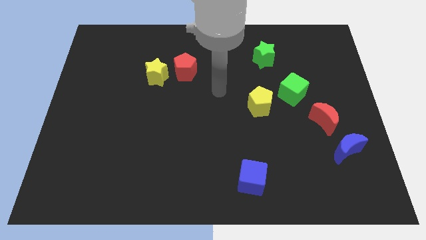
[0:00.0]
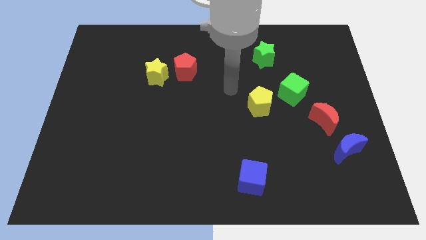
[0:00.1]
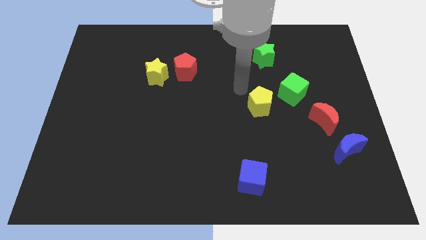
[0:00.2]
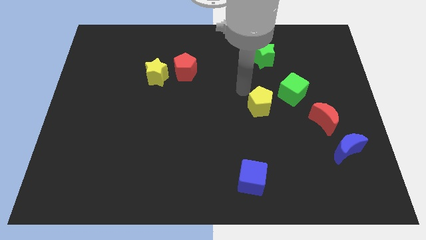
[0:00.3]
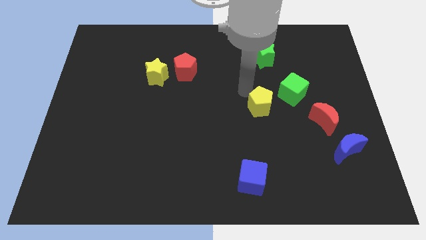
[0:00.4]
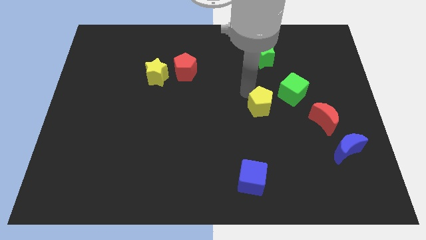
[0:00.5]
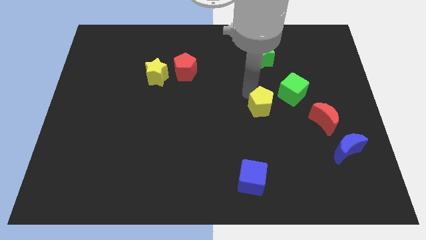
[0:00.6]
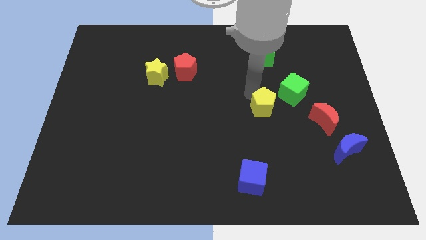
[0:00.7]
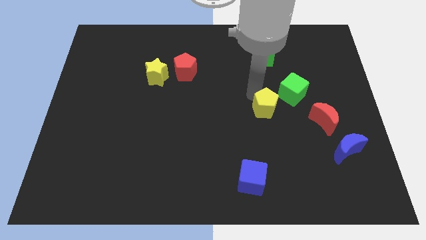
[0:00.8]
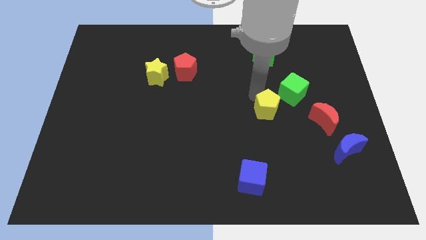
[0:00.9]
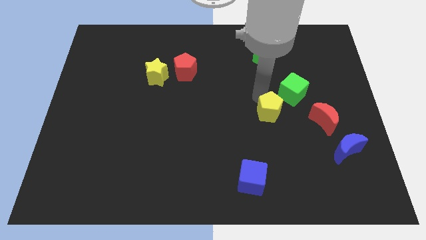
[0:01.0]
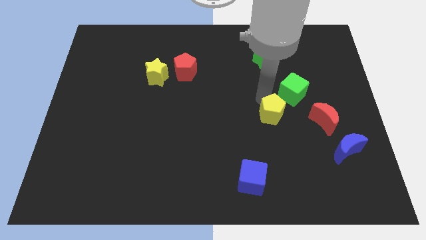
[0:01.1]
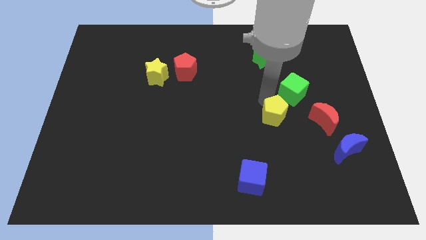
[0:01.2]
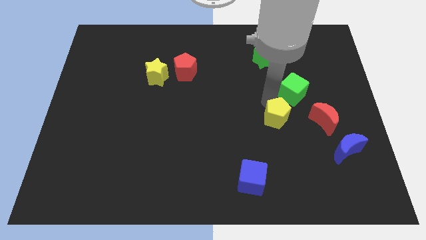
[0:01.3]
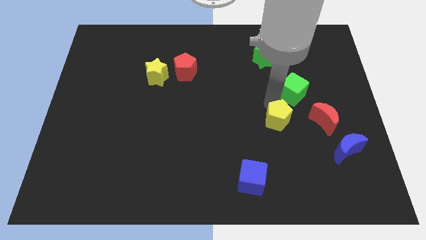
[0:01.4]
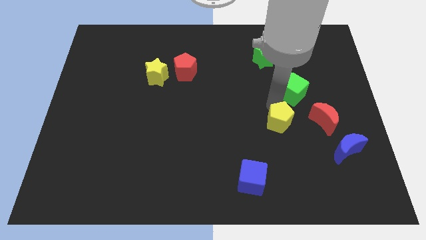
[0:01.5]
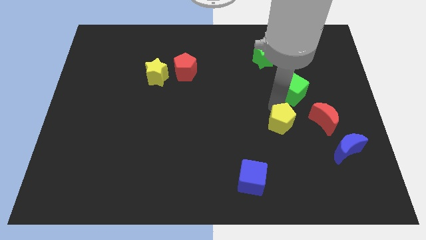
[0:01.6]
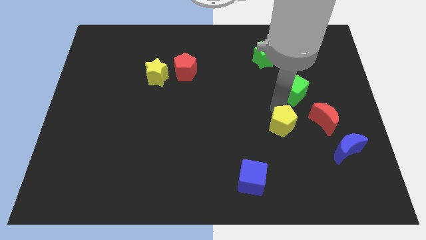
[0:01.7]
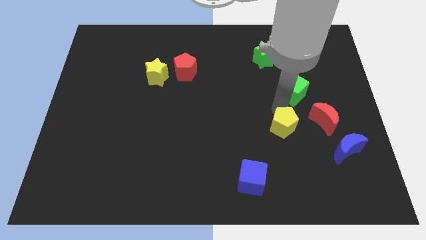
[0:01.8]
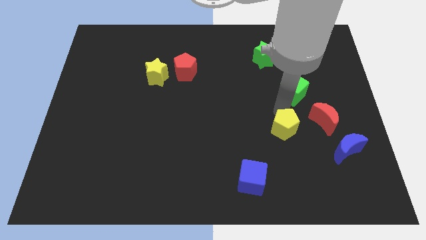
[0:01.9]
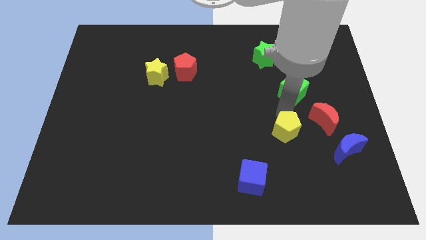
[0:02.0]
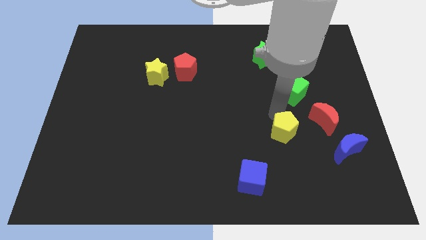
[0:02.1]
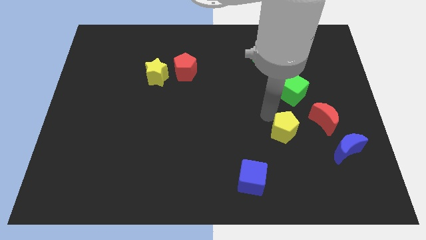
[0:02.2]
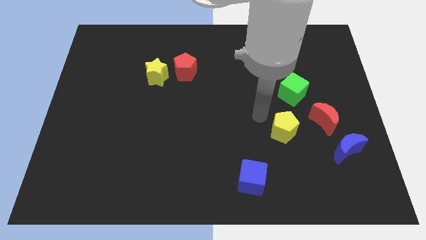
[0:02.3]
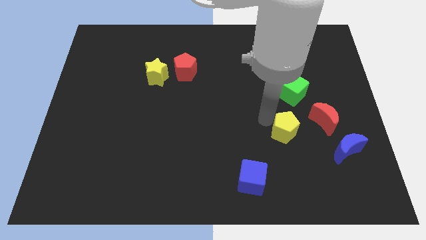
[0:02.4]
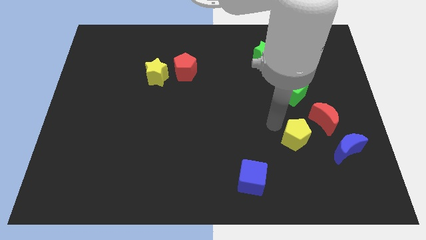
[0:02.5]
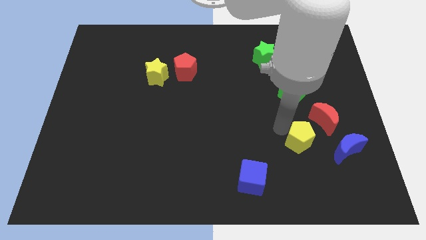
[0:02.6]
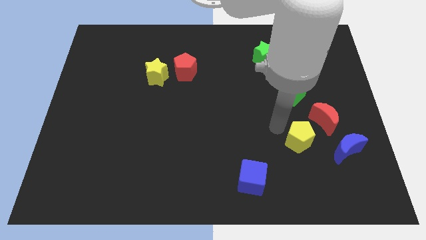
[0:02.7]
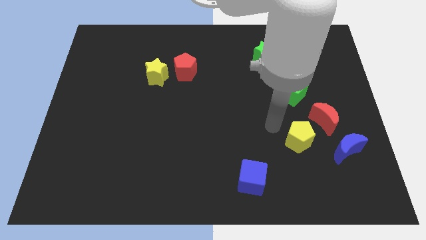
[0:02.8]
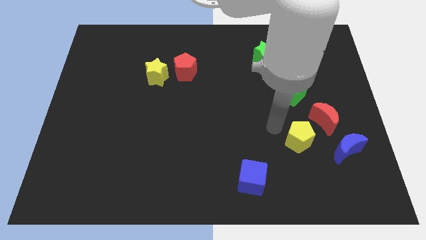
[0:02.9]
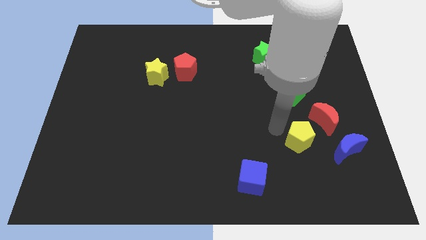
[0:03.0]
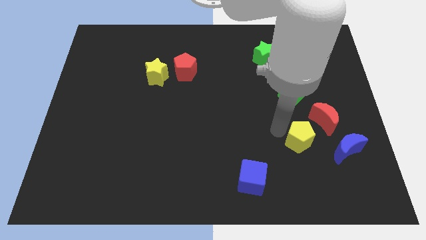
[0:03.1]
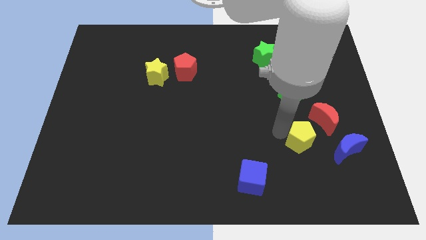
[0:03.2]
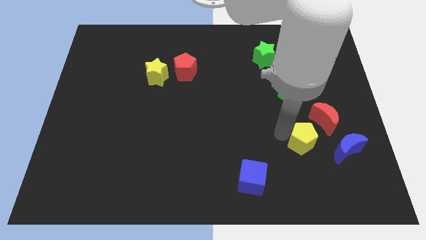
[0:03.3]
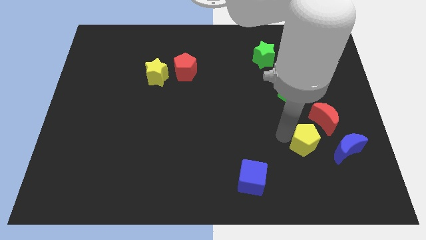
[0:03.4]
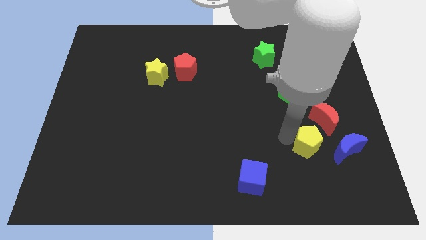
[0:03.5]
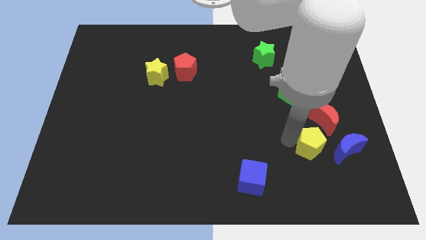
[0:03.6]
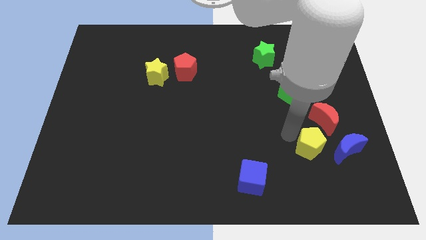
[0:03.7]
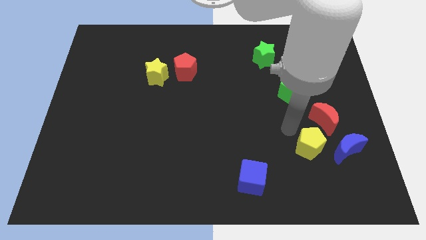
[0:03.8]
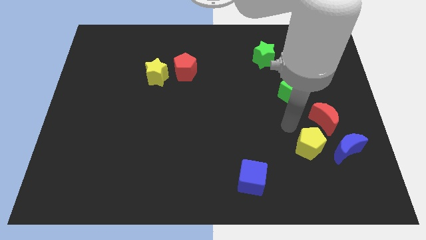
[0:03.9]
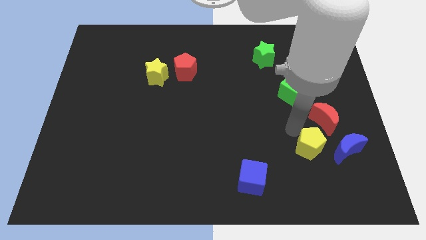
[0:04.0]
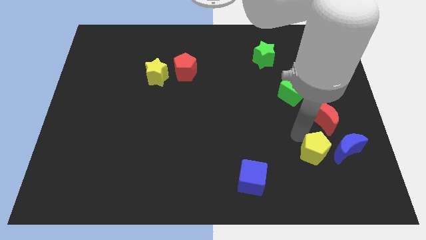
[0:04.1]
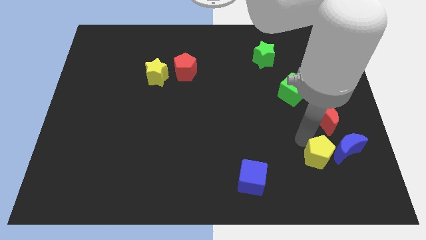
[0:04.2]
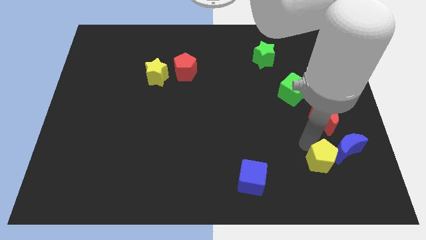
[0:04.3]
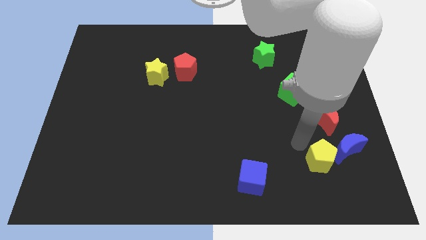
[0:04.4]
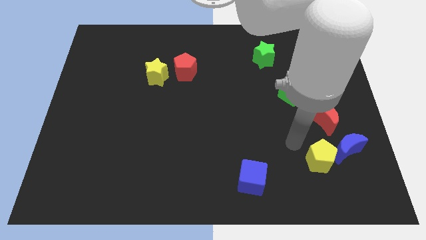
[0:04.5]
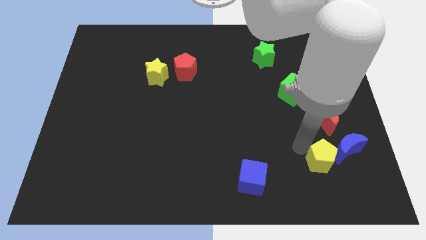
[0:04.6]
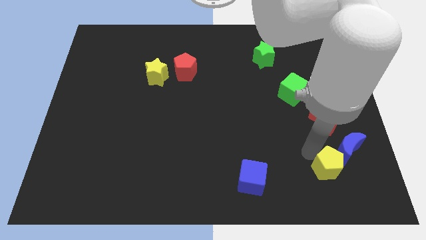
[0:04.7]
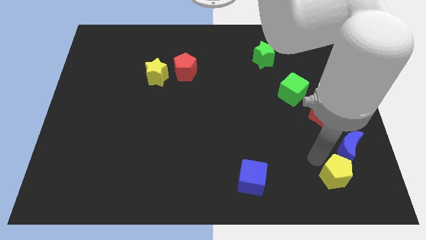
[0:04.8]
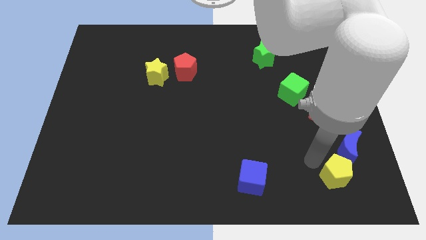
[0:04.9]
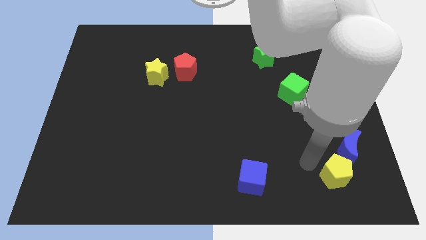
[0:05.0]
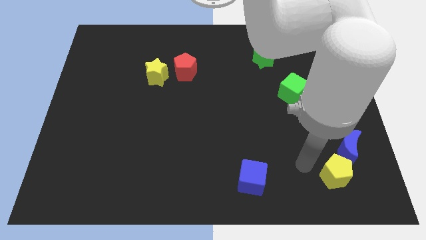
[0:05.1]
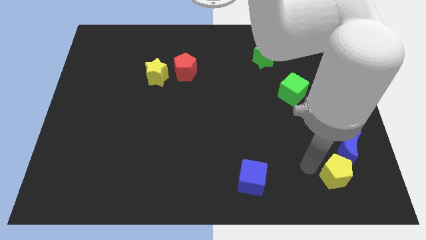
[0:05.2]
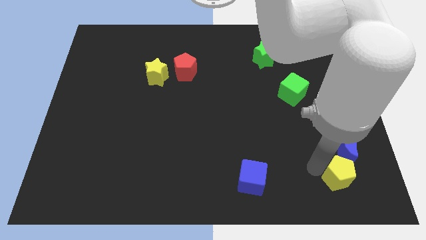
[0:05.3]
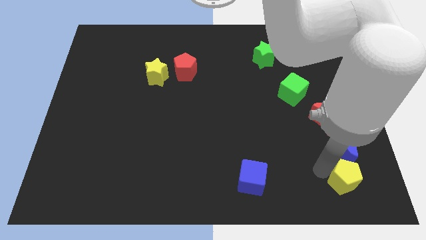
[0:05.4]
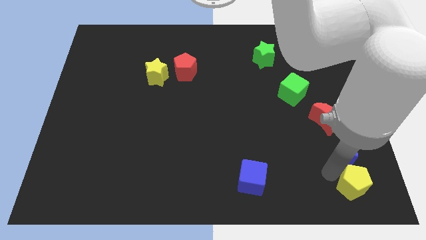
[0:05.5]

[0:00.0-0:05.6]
move the yellow pentagon to the bottom right corner
